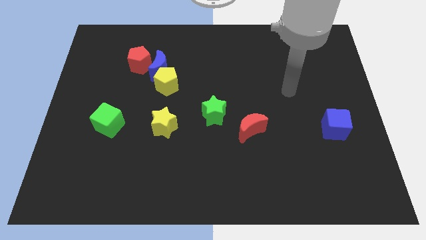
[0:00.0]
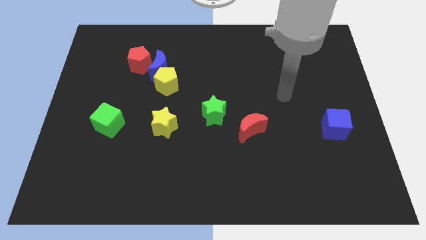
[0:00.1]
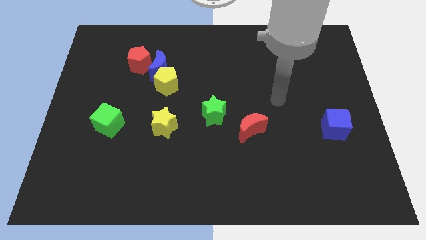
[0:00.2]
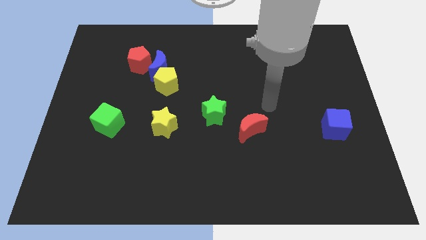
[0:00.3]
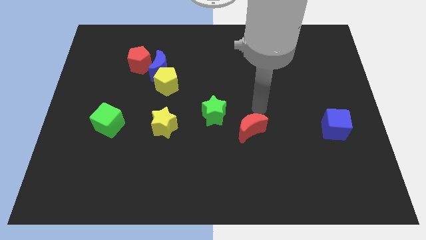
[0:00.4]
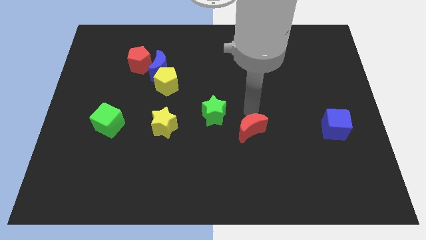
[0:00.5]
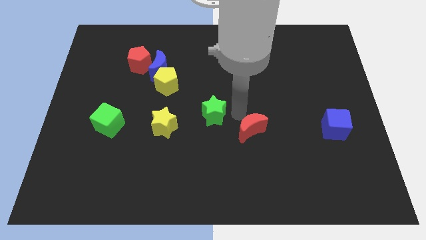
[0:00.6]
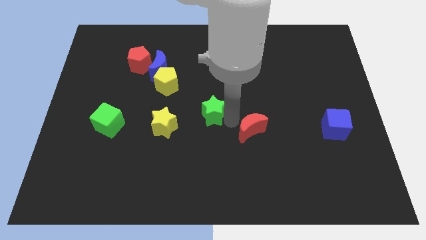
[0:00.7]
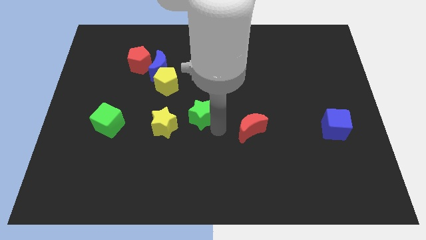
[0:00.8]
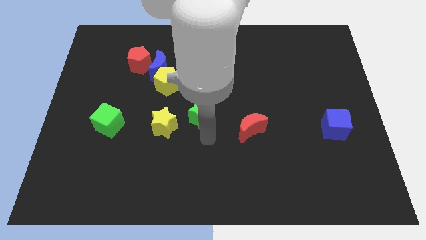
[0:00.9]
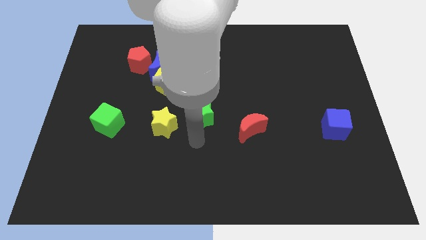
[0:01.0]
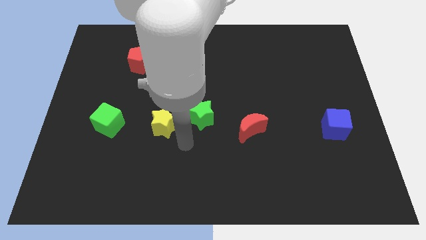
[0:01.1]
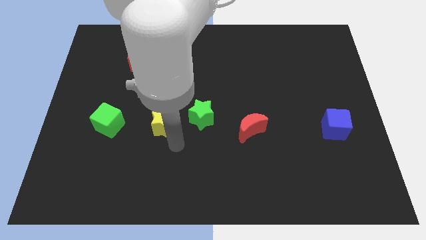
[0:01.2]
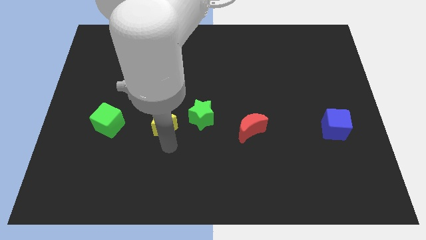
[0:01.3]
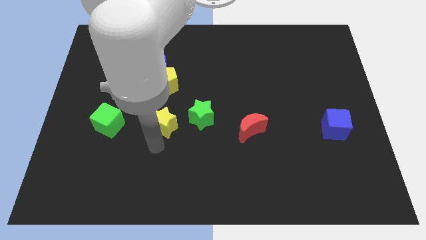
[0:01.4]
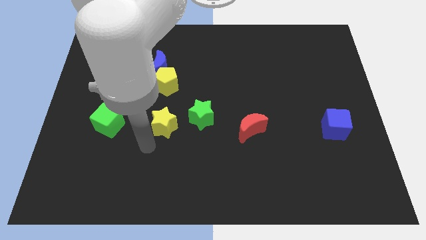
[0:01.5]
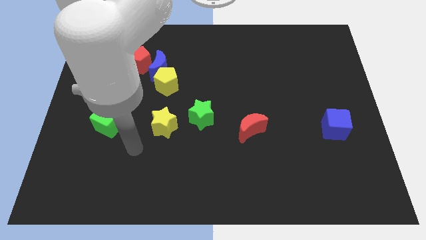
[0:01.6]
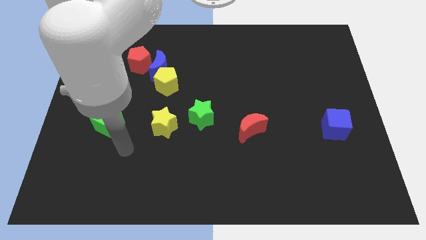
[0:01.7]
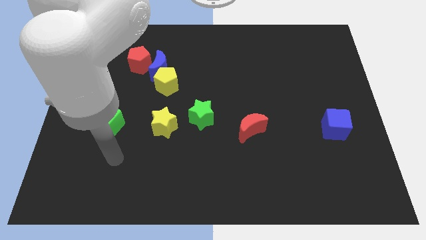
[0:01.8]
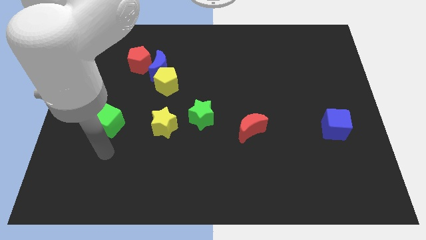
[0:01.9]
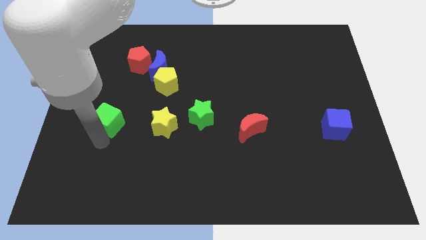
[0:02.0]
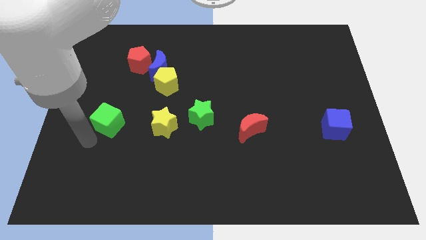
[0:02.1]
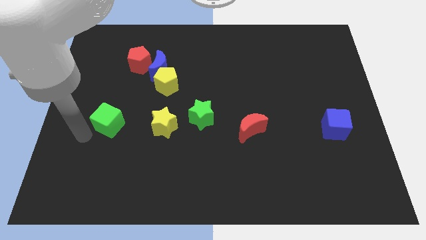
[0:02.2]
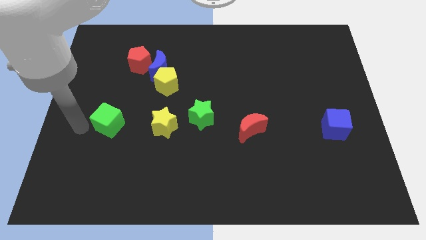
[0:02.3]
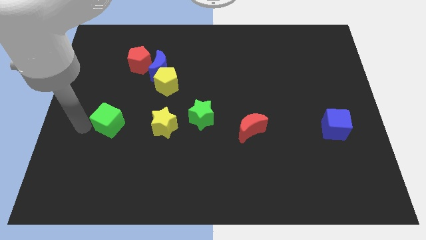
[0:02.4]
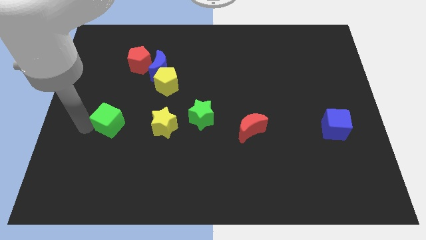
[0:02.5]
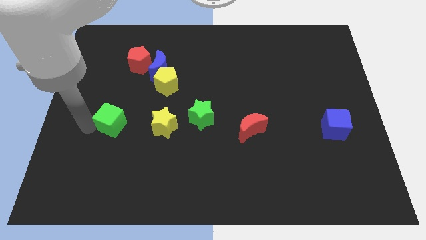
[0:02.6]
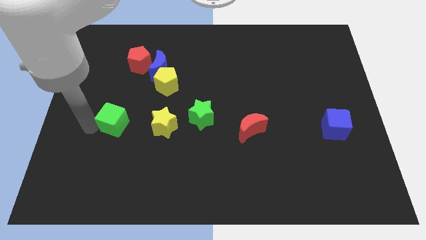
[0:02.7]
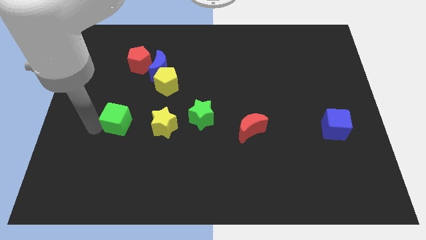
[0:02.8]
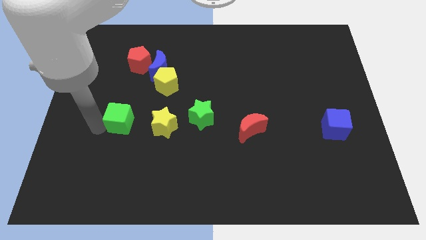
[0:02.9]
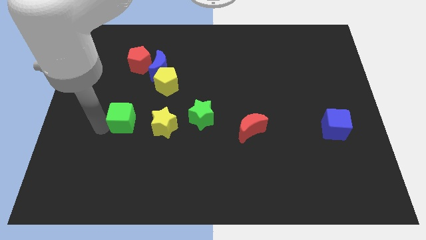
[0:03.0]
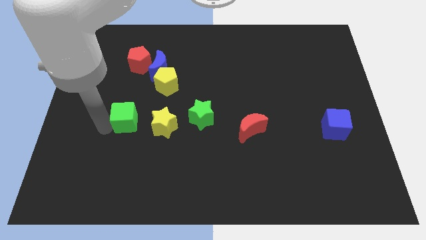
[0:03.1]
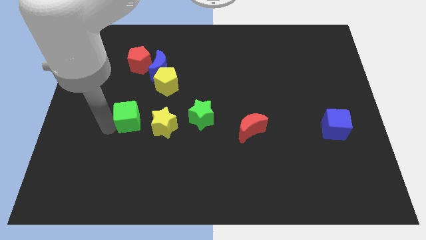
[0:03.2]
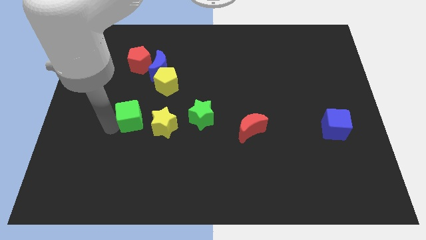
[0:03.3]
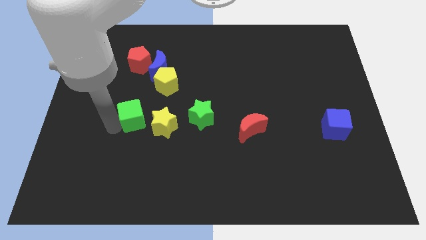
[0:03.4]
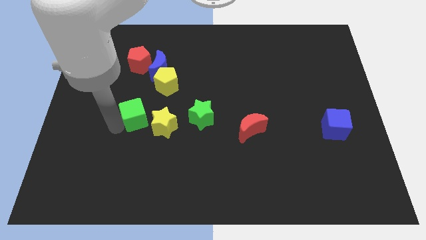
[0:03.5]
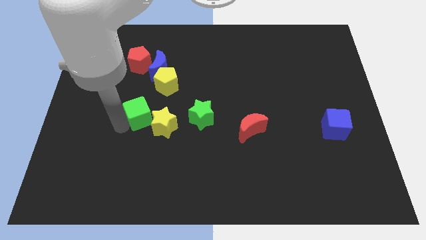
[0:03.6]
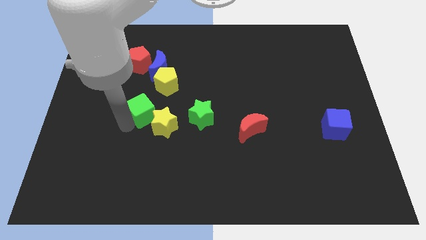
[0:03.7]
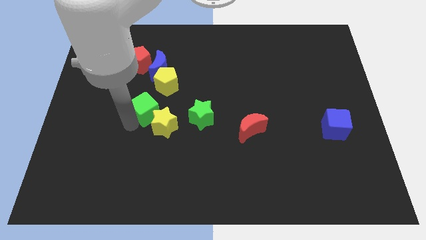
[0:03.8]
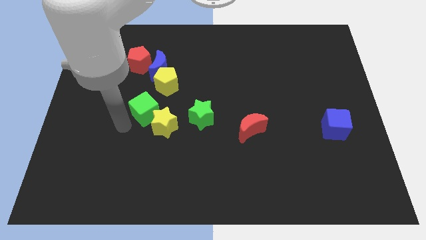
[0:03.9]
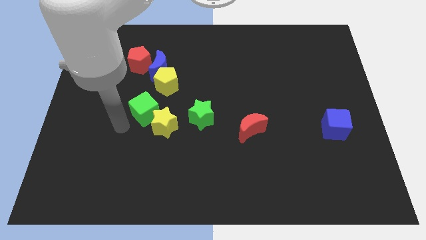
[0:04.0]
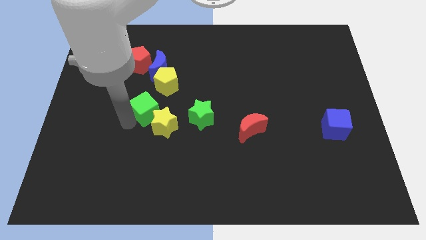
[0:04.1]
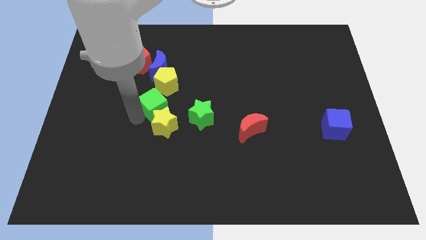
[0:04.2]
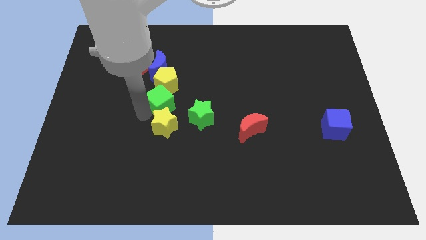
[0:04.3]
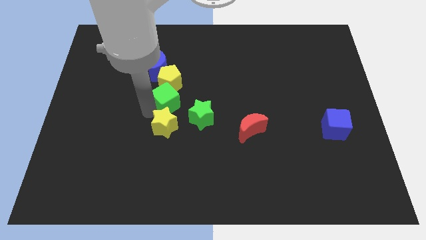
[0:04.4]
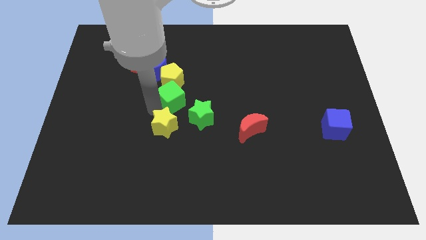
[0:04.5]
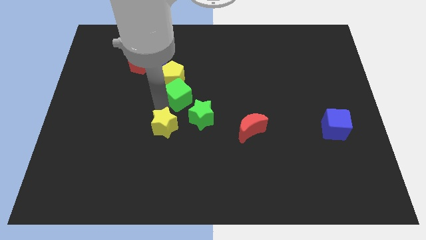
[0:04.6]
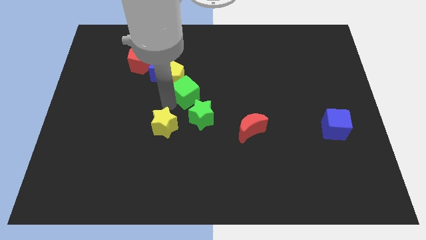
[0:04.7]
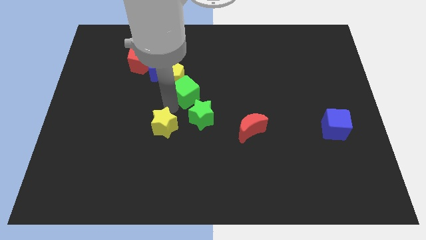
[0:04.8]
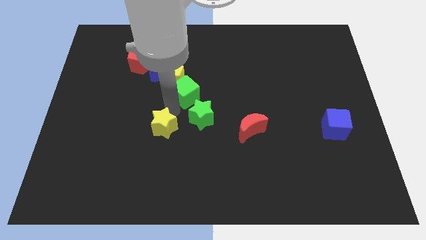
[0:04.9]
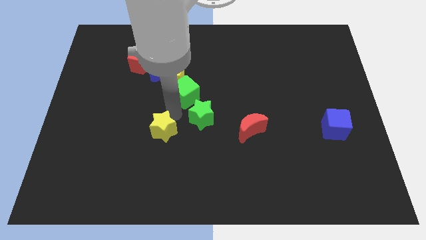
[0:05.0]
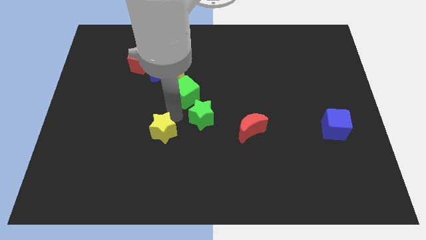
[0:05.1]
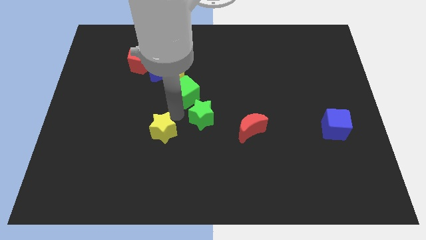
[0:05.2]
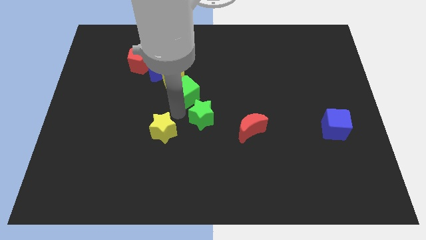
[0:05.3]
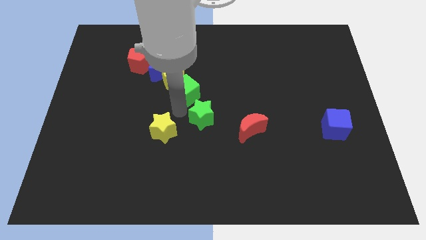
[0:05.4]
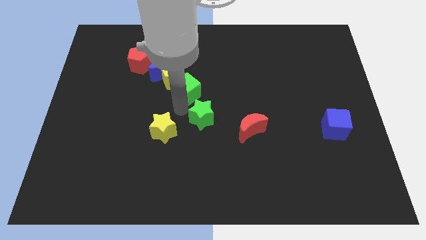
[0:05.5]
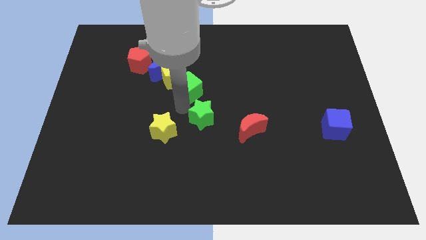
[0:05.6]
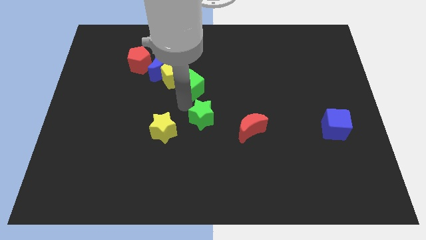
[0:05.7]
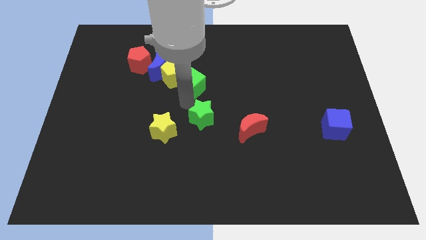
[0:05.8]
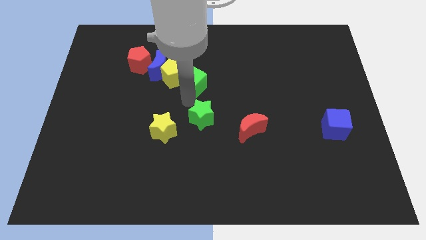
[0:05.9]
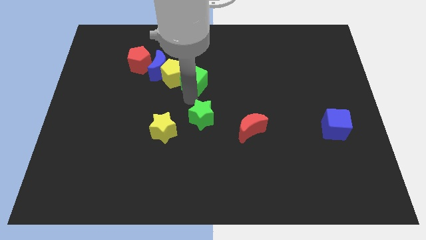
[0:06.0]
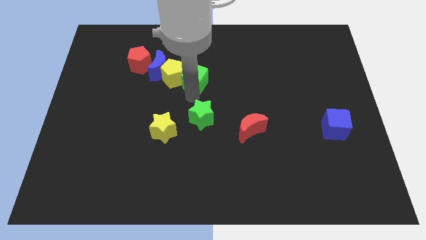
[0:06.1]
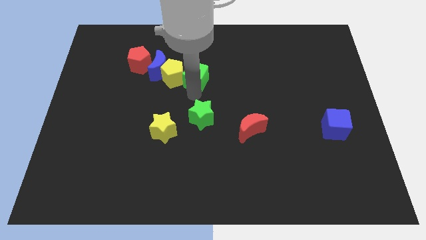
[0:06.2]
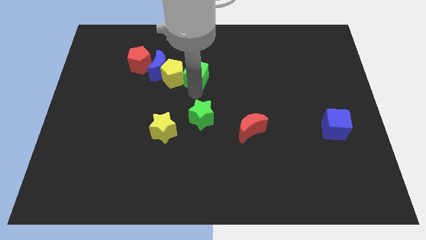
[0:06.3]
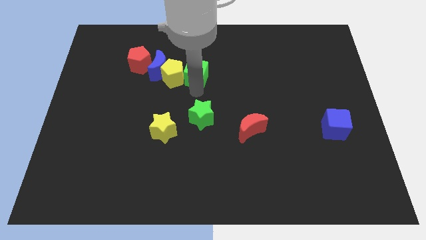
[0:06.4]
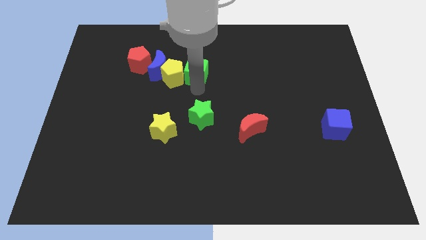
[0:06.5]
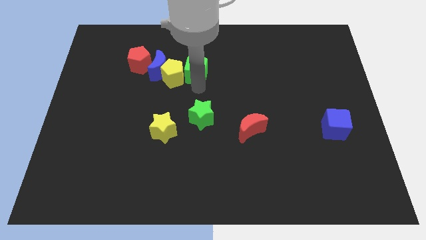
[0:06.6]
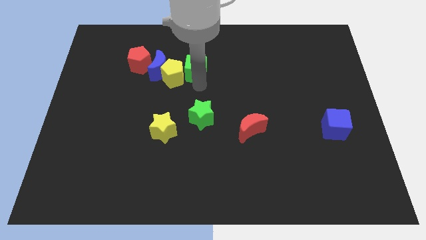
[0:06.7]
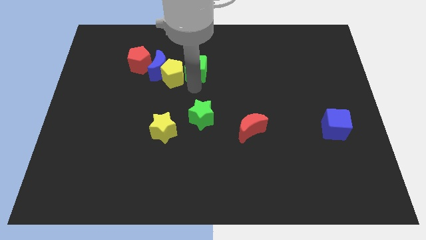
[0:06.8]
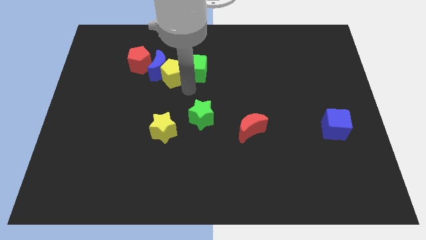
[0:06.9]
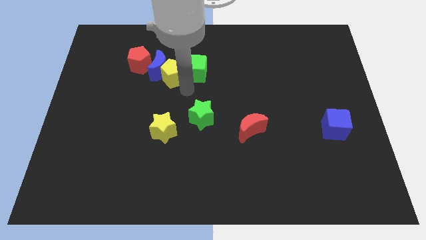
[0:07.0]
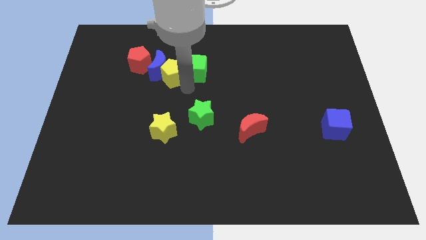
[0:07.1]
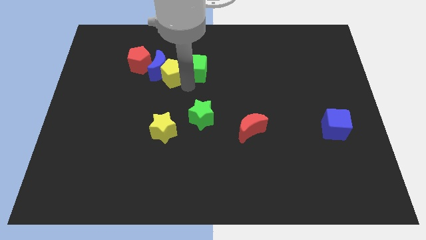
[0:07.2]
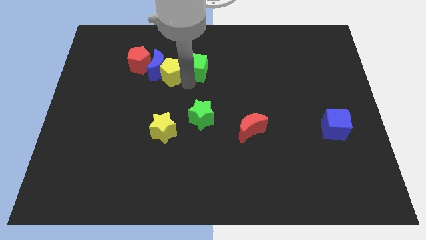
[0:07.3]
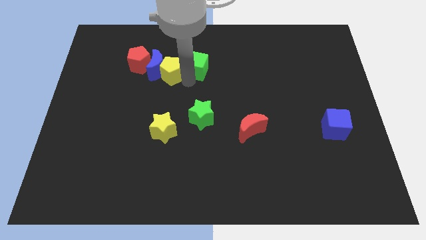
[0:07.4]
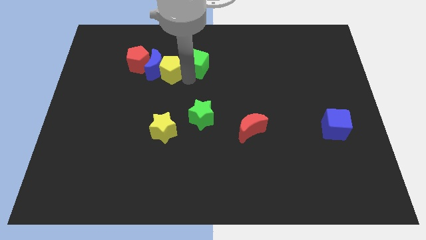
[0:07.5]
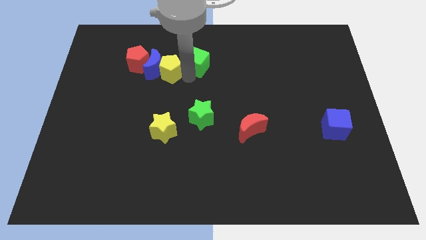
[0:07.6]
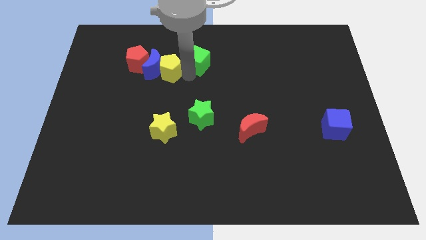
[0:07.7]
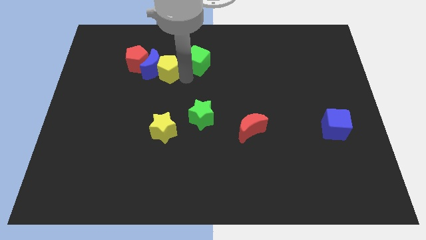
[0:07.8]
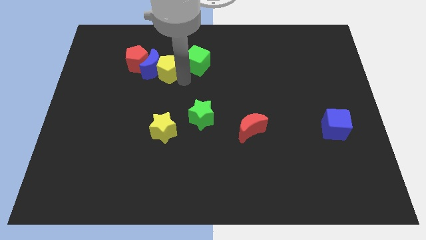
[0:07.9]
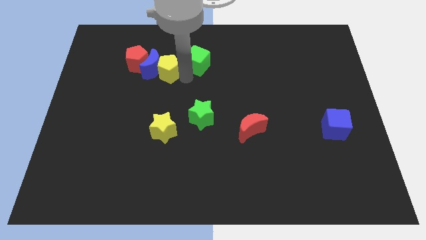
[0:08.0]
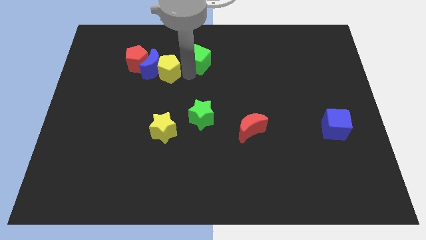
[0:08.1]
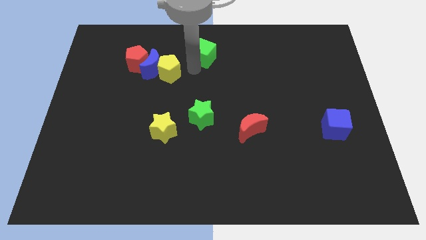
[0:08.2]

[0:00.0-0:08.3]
put the green cube to the top side
